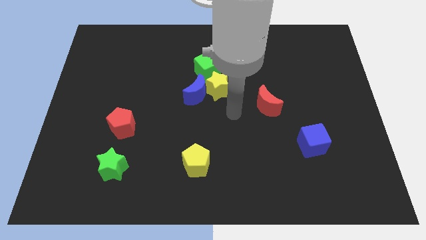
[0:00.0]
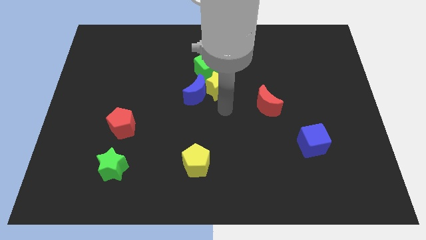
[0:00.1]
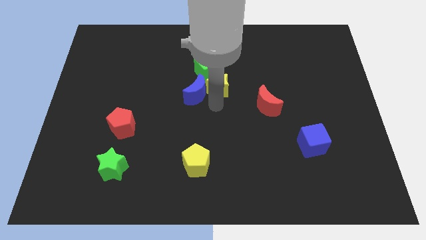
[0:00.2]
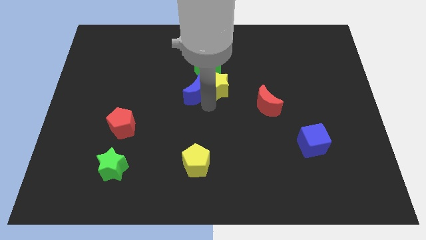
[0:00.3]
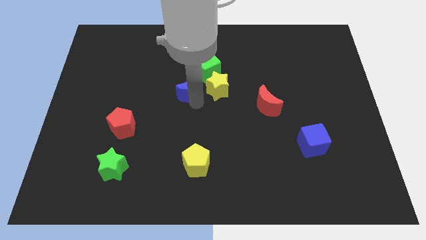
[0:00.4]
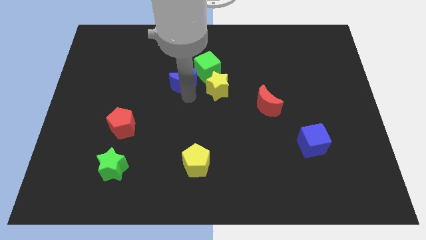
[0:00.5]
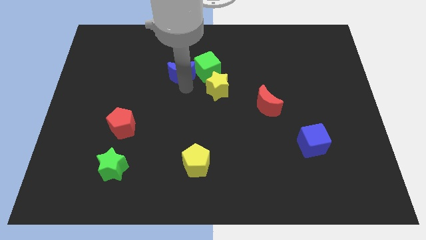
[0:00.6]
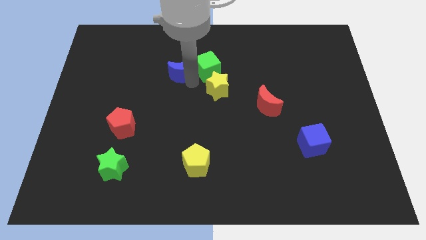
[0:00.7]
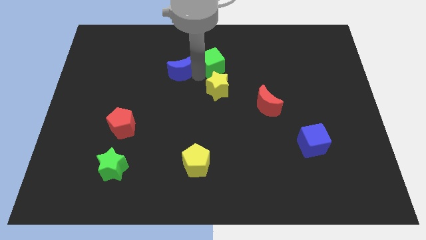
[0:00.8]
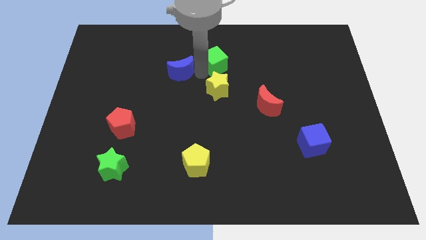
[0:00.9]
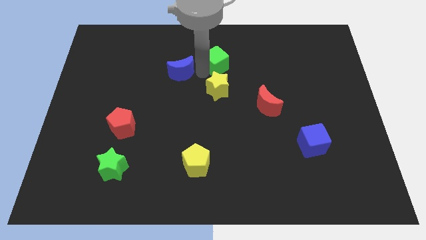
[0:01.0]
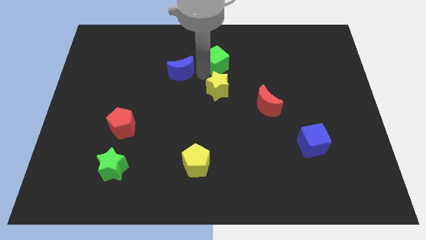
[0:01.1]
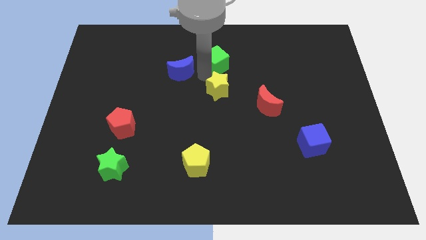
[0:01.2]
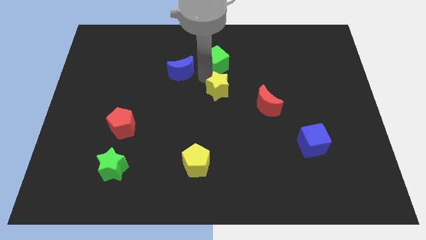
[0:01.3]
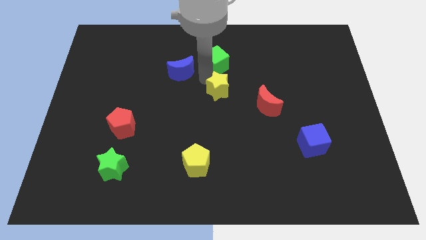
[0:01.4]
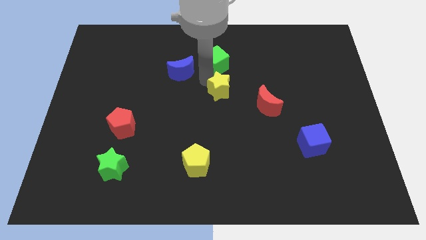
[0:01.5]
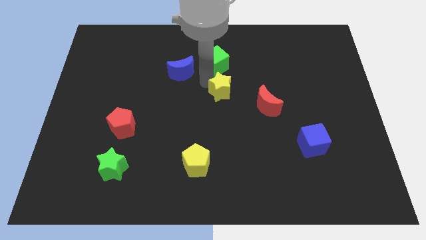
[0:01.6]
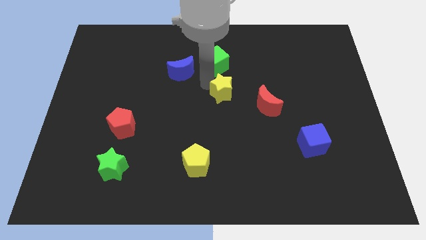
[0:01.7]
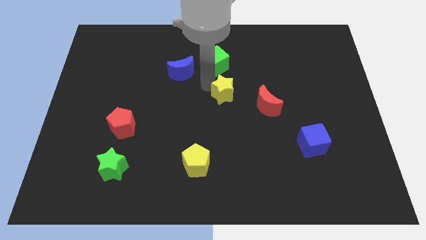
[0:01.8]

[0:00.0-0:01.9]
pull the yellow star apart from the blue moon and green cube

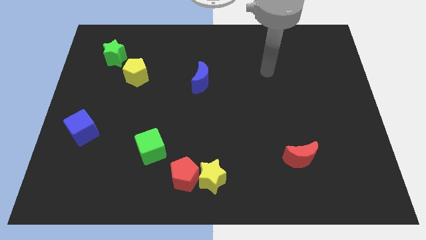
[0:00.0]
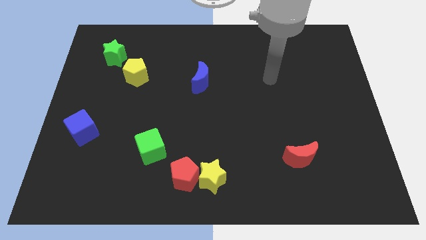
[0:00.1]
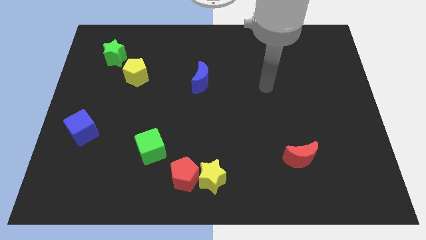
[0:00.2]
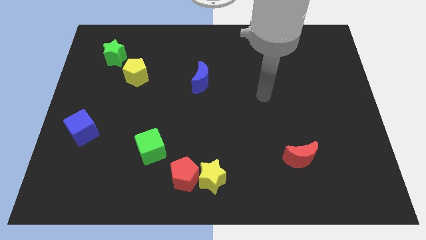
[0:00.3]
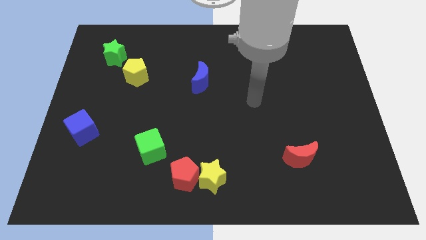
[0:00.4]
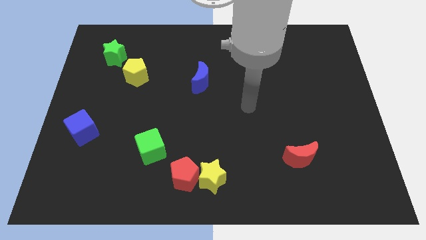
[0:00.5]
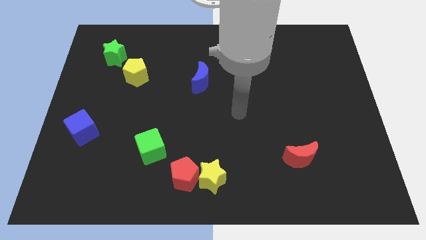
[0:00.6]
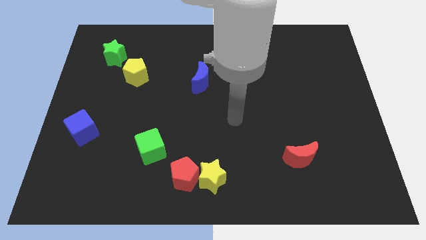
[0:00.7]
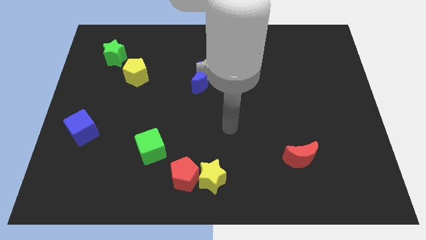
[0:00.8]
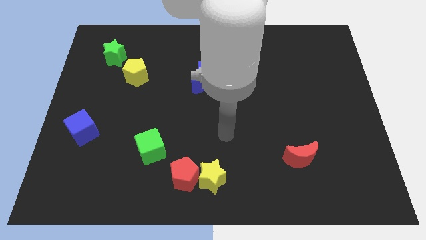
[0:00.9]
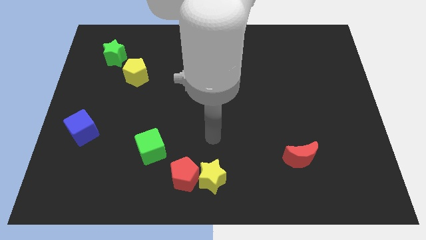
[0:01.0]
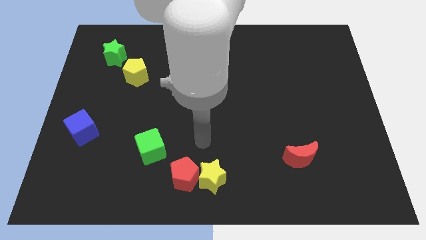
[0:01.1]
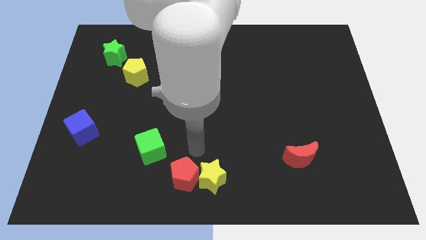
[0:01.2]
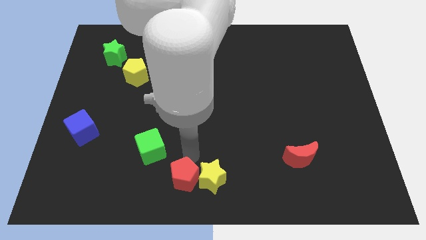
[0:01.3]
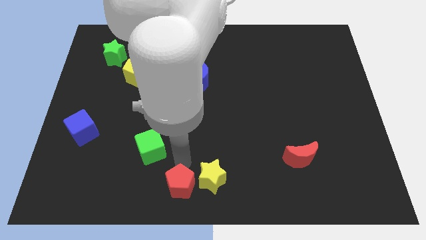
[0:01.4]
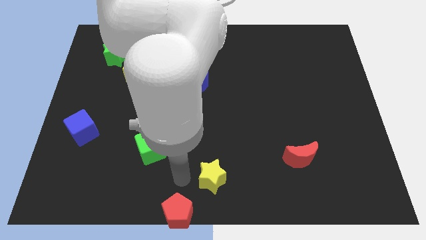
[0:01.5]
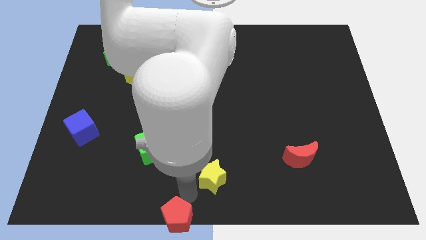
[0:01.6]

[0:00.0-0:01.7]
pull the yellow star apart from the red pentagon

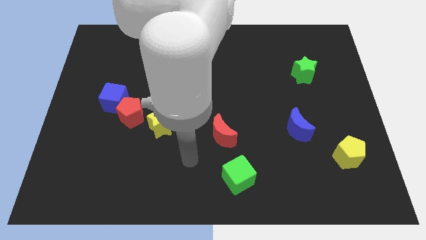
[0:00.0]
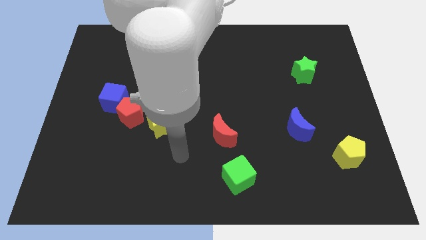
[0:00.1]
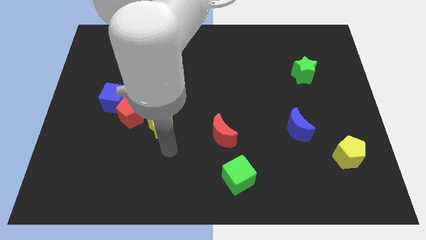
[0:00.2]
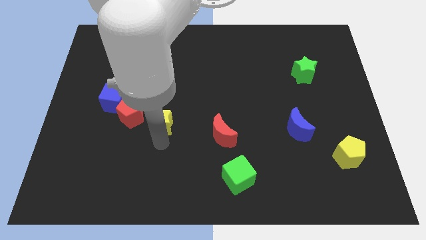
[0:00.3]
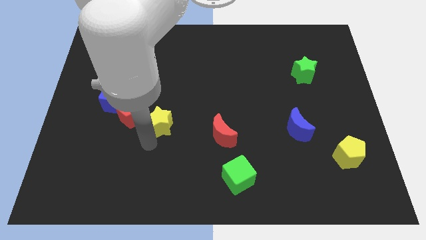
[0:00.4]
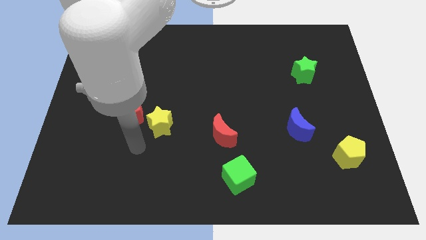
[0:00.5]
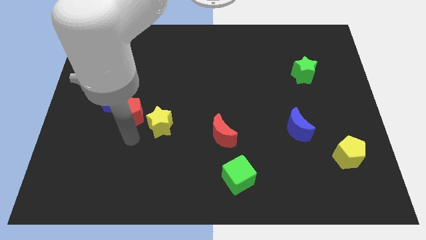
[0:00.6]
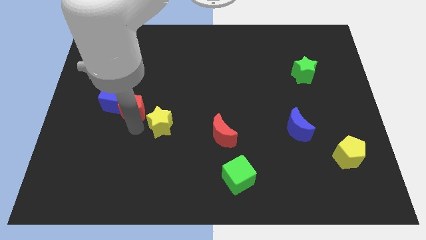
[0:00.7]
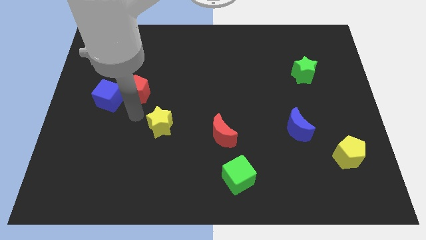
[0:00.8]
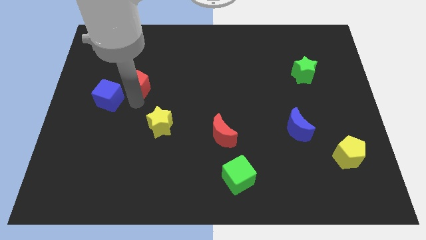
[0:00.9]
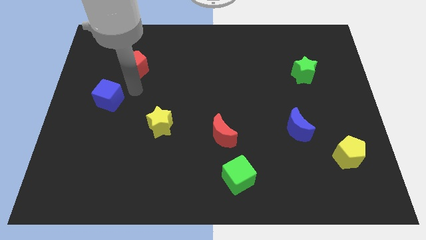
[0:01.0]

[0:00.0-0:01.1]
separate the blue cube from the red pentagon

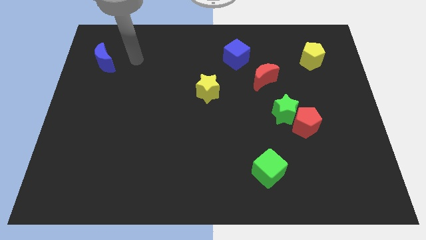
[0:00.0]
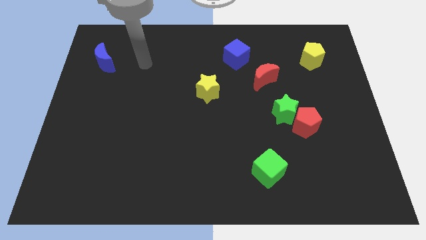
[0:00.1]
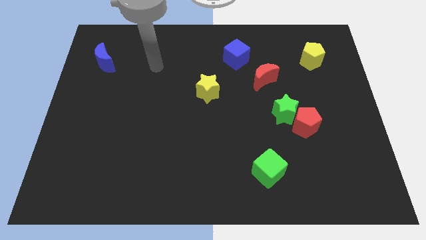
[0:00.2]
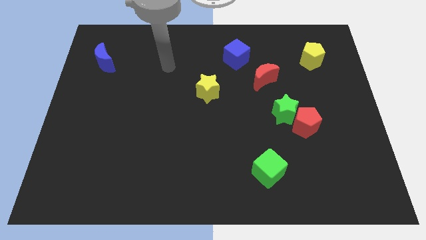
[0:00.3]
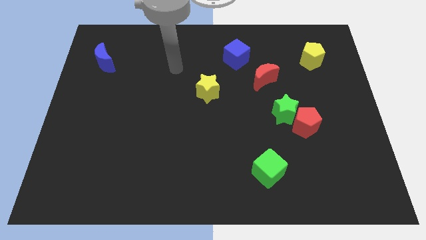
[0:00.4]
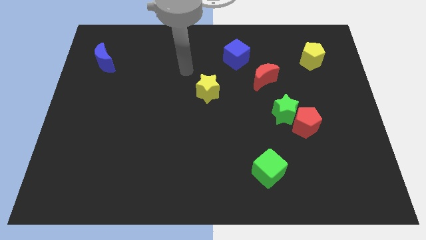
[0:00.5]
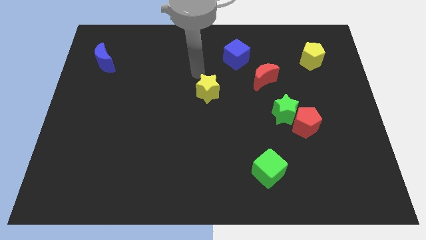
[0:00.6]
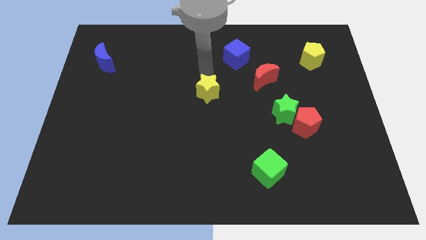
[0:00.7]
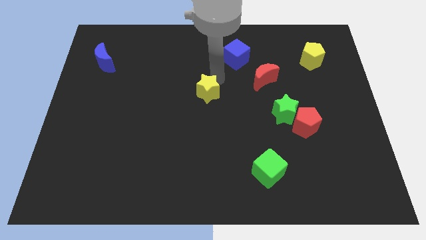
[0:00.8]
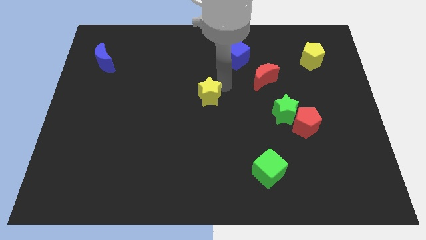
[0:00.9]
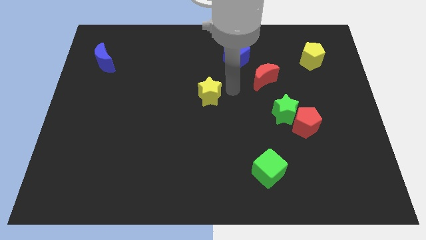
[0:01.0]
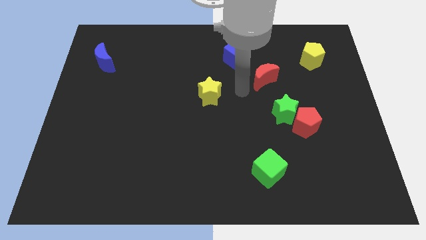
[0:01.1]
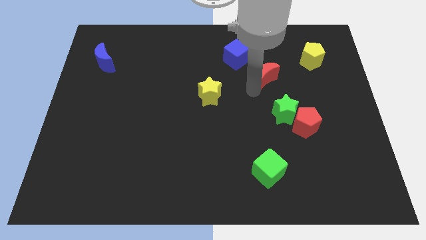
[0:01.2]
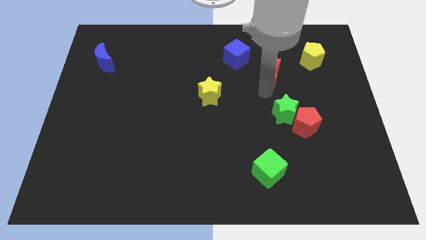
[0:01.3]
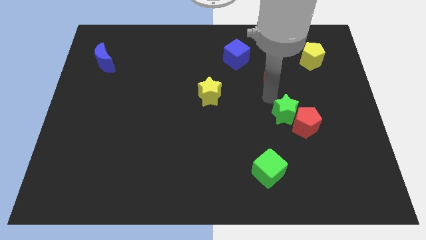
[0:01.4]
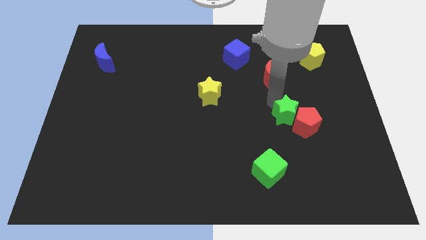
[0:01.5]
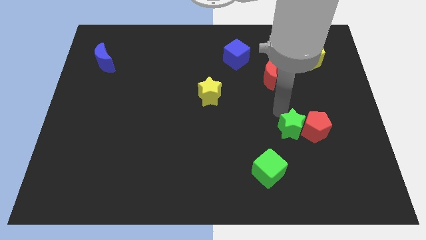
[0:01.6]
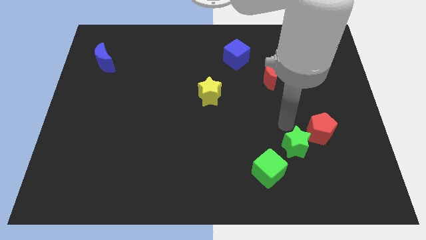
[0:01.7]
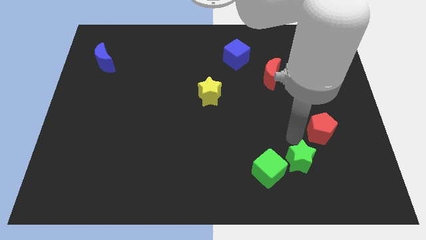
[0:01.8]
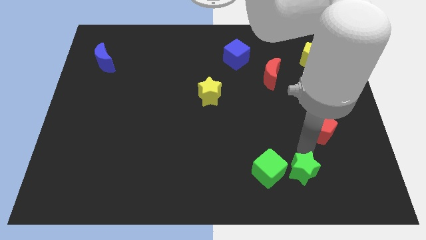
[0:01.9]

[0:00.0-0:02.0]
pull the red pentagon apart from the green star

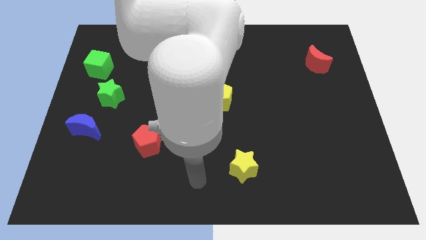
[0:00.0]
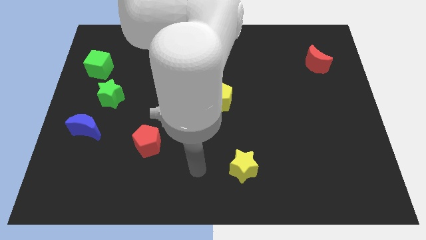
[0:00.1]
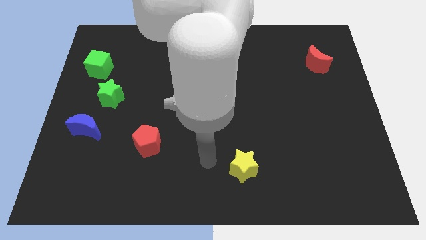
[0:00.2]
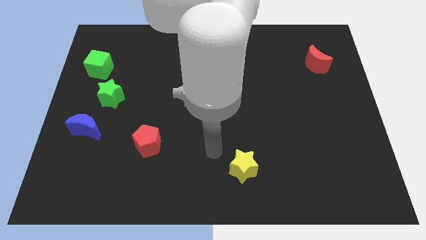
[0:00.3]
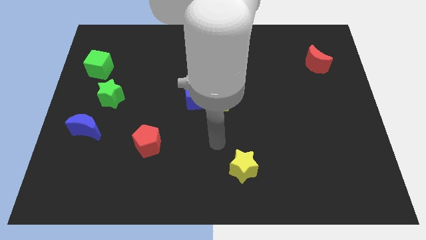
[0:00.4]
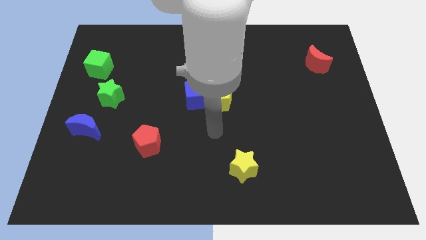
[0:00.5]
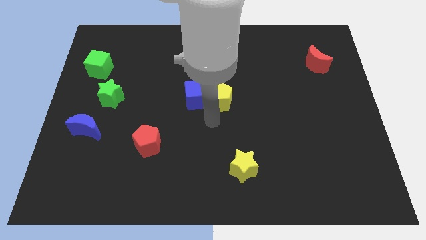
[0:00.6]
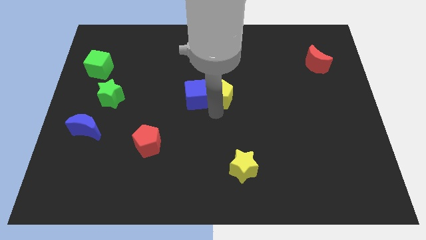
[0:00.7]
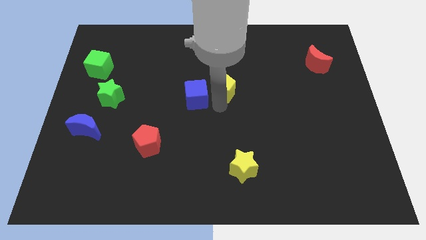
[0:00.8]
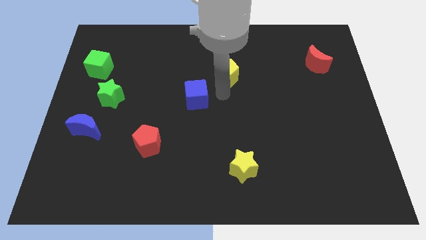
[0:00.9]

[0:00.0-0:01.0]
separate the blue cube from the yellow pentagon

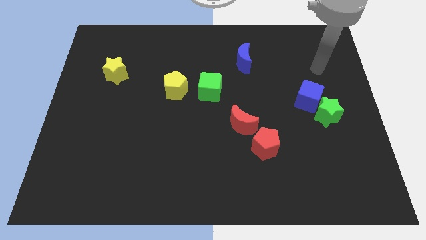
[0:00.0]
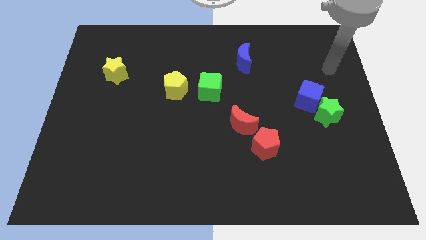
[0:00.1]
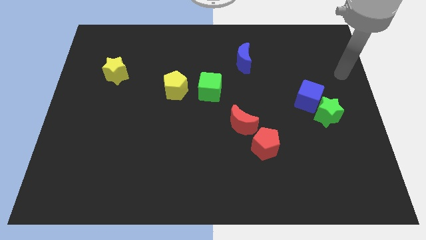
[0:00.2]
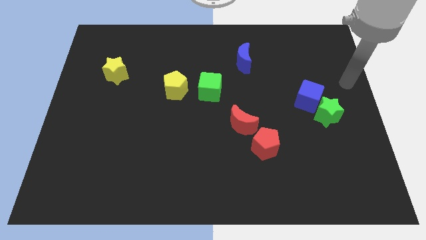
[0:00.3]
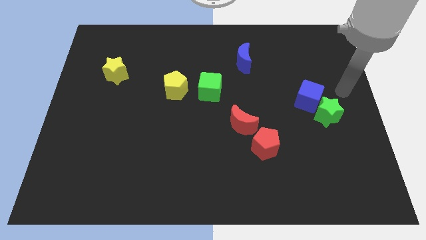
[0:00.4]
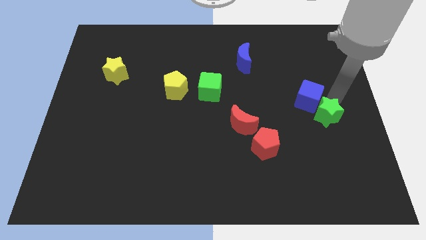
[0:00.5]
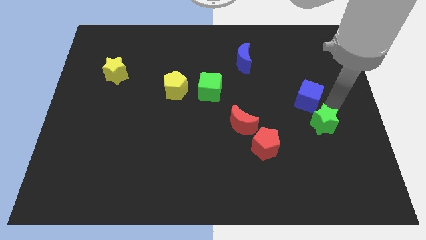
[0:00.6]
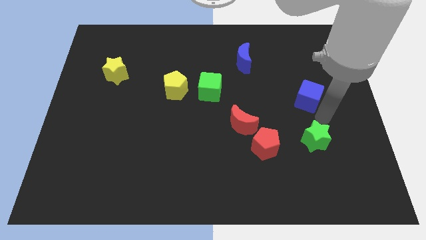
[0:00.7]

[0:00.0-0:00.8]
separate the blue cube from the green star

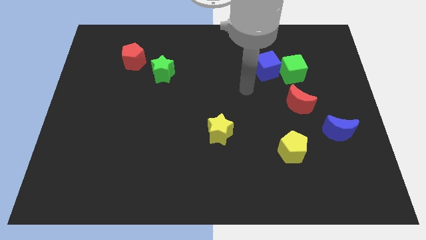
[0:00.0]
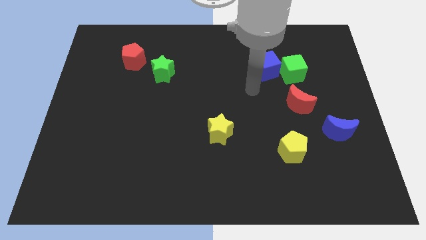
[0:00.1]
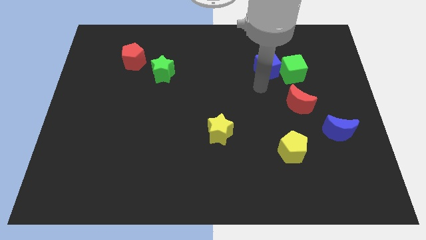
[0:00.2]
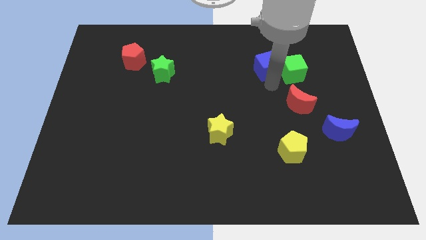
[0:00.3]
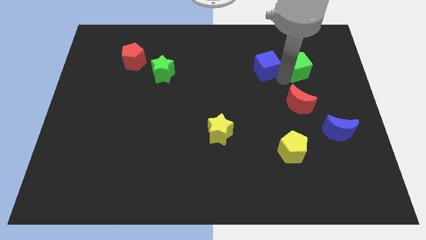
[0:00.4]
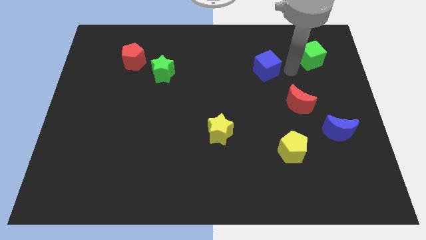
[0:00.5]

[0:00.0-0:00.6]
move the blue cube away from the green cube

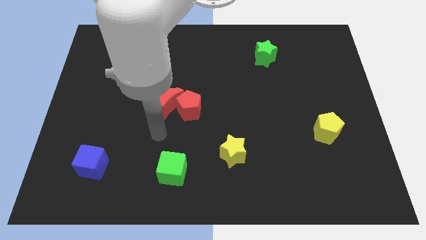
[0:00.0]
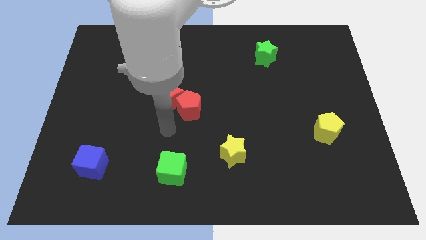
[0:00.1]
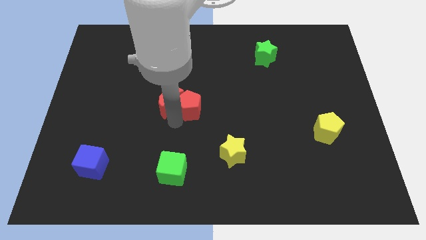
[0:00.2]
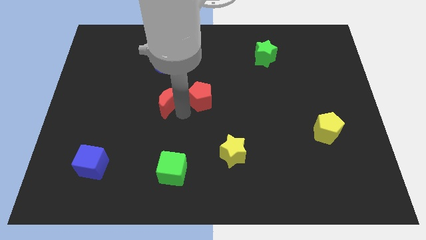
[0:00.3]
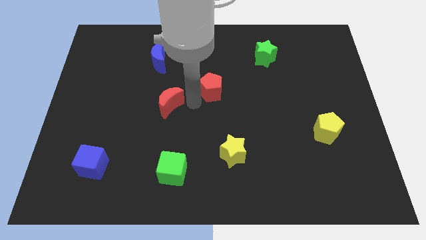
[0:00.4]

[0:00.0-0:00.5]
separate the red moon from the red pentagon
